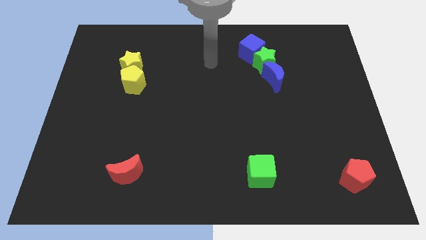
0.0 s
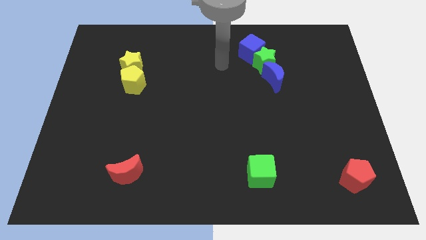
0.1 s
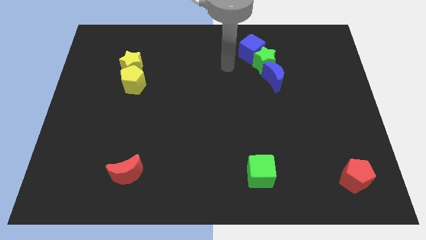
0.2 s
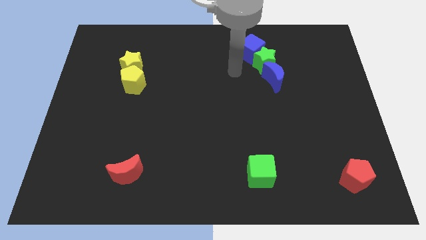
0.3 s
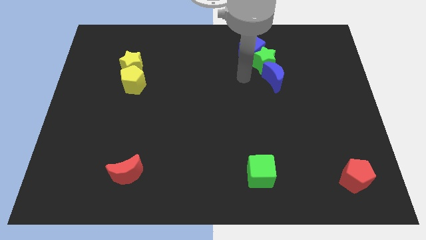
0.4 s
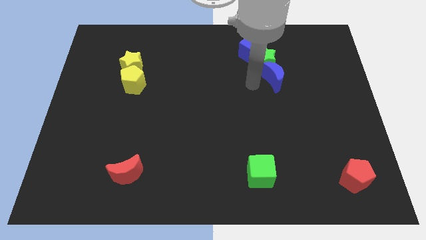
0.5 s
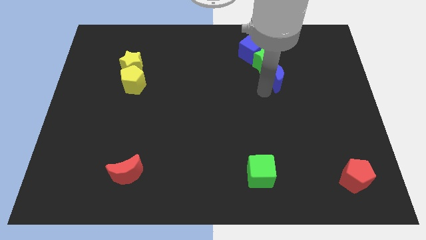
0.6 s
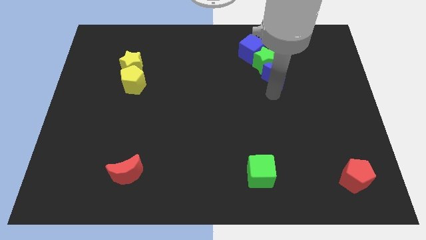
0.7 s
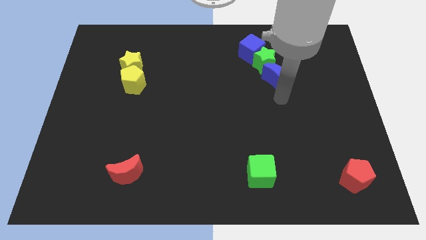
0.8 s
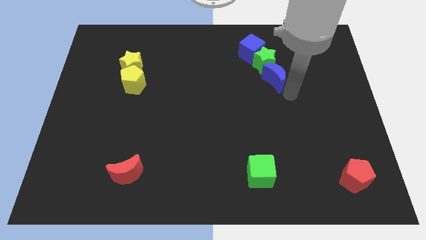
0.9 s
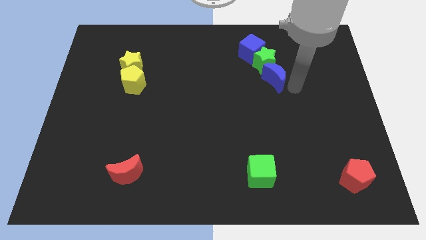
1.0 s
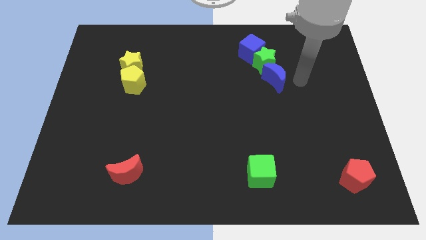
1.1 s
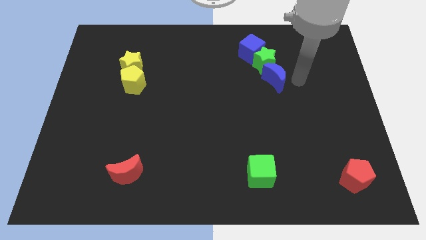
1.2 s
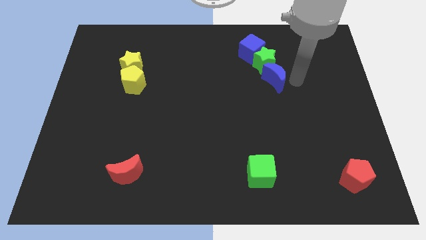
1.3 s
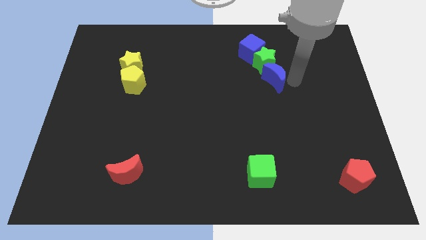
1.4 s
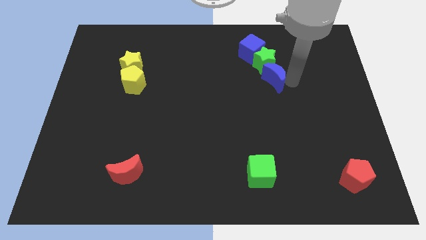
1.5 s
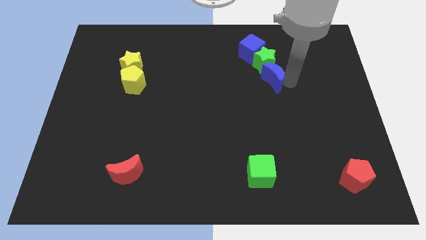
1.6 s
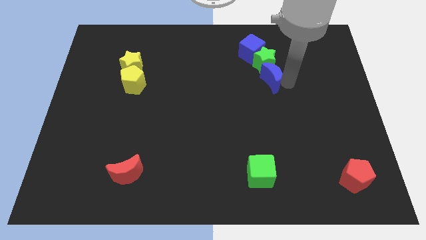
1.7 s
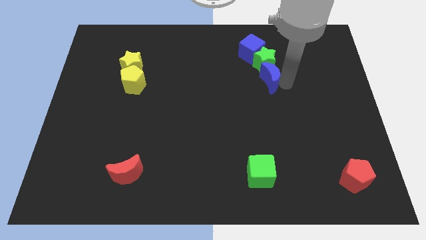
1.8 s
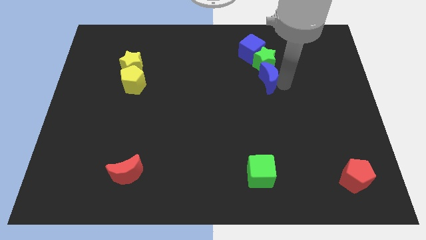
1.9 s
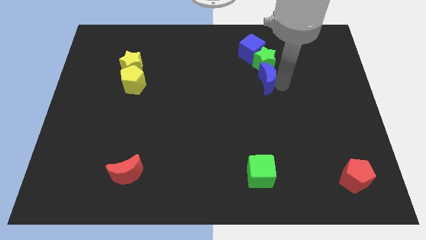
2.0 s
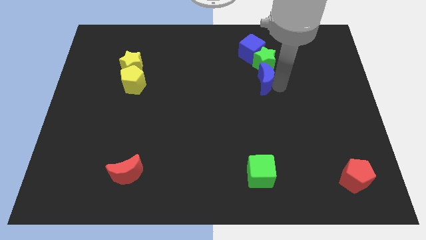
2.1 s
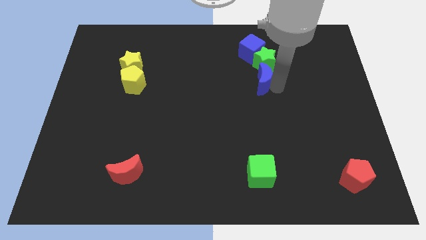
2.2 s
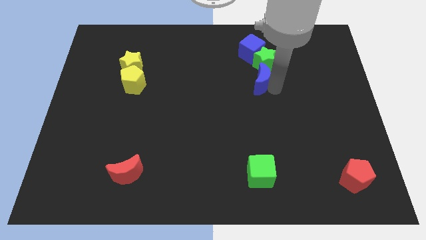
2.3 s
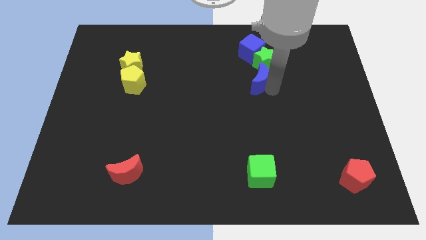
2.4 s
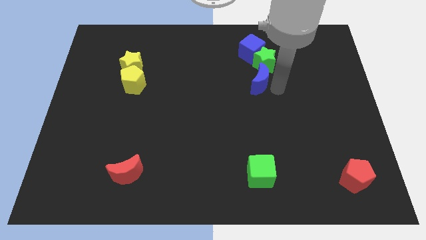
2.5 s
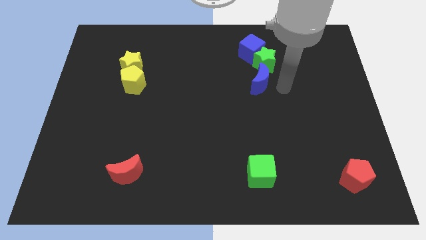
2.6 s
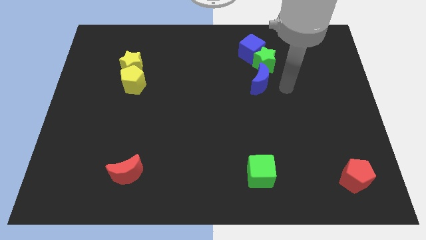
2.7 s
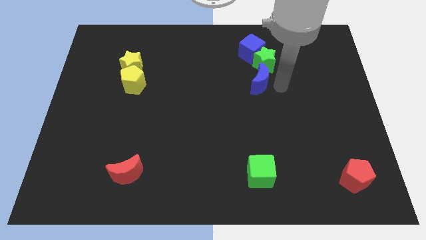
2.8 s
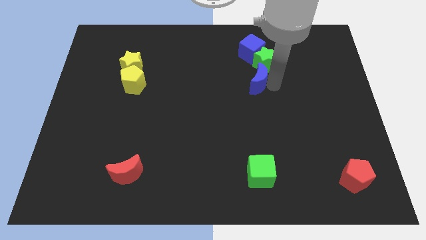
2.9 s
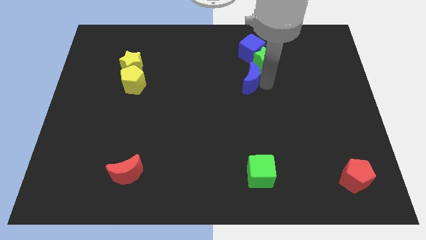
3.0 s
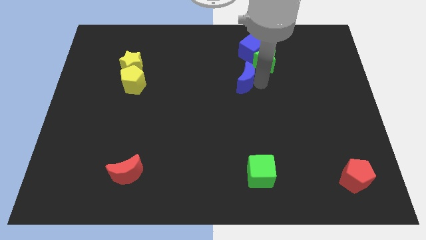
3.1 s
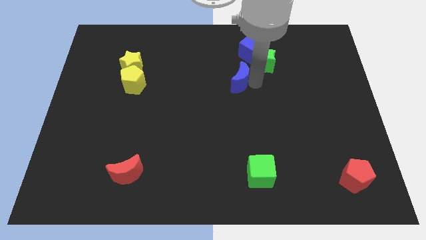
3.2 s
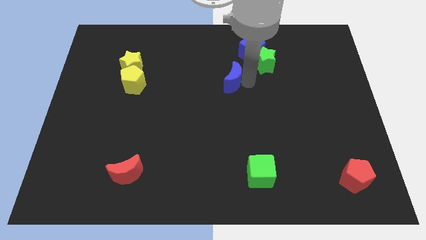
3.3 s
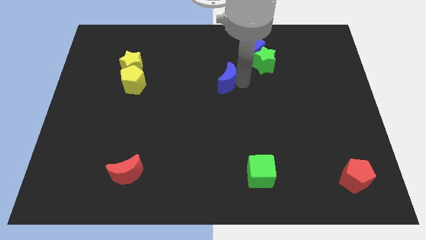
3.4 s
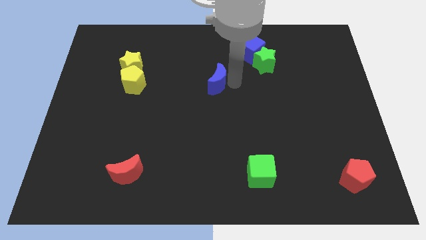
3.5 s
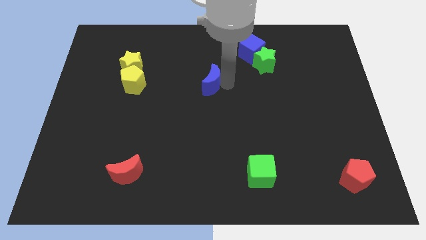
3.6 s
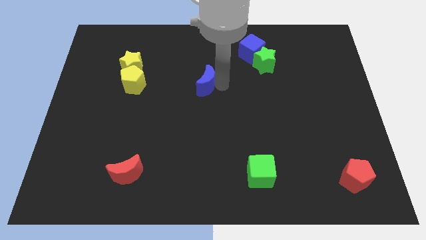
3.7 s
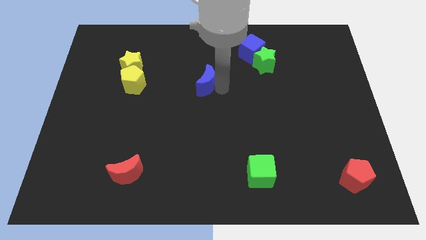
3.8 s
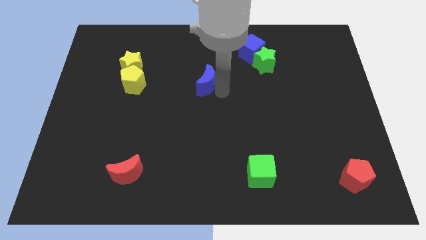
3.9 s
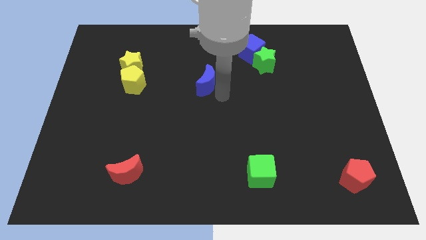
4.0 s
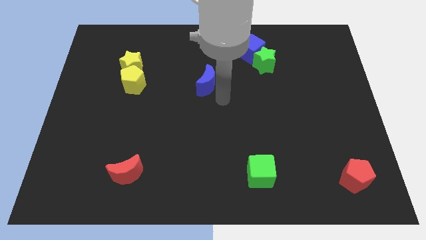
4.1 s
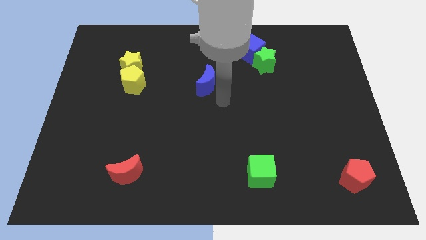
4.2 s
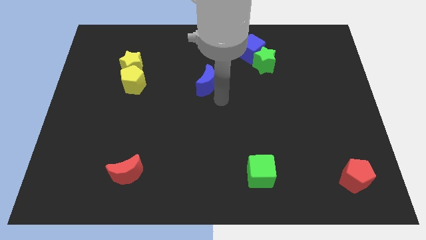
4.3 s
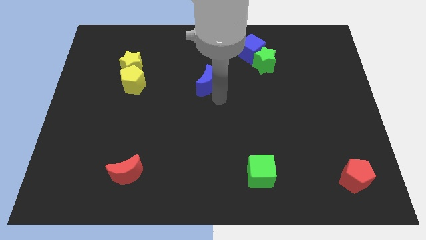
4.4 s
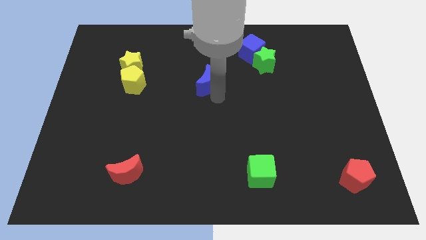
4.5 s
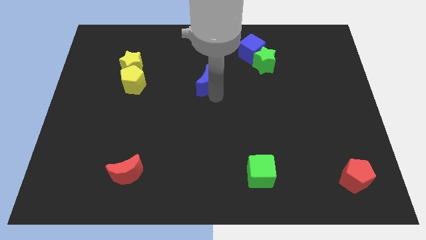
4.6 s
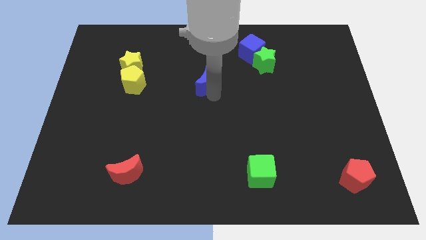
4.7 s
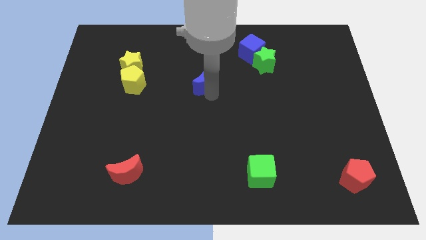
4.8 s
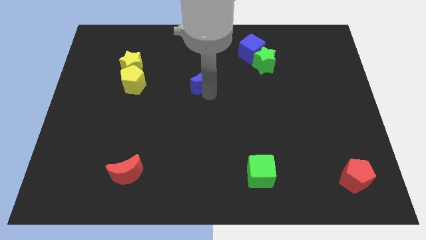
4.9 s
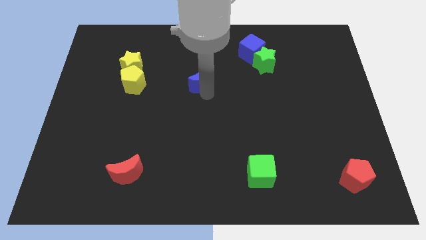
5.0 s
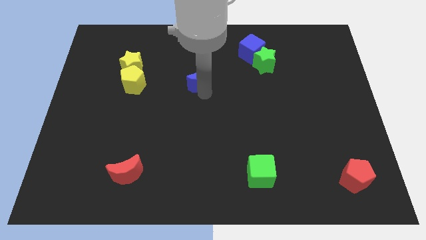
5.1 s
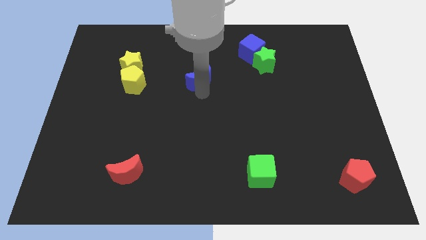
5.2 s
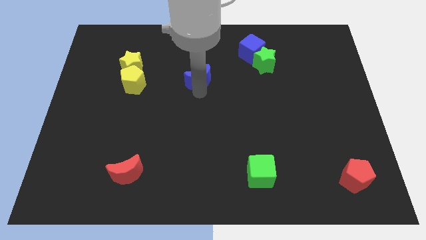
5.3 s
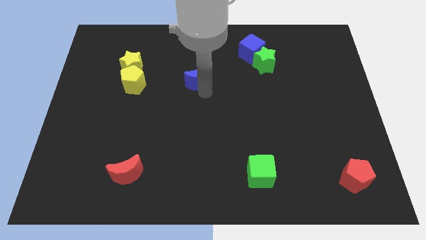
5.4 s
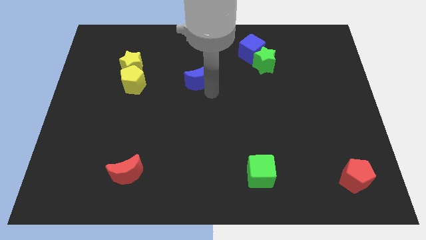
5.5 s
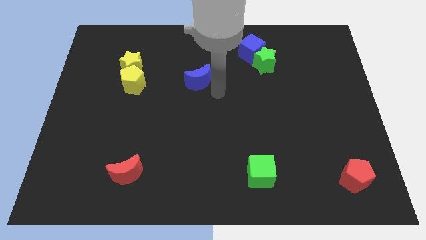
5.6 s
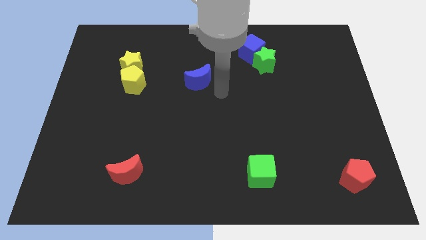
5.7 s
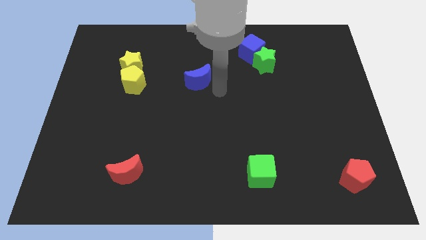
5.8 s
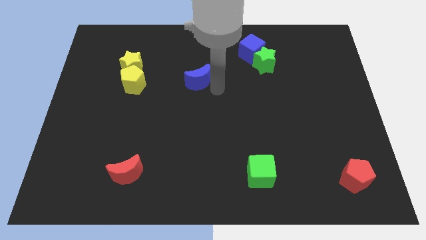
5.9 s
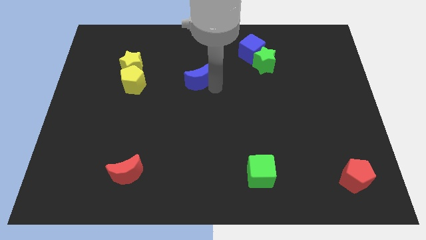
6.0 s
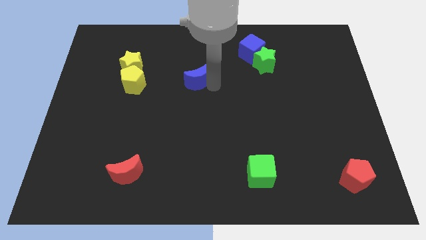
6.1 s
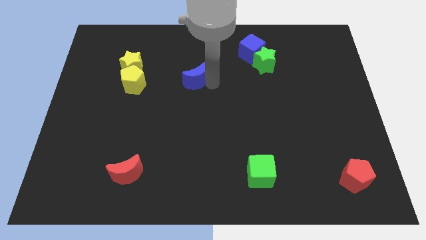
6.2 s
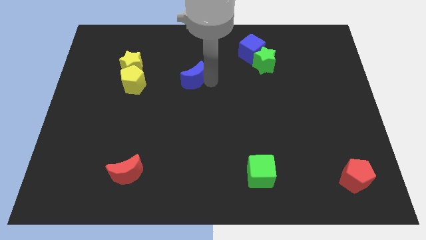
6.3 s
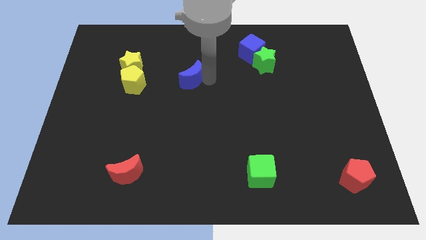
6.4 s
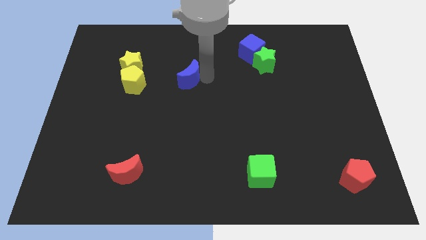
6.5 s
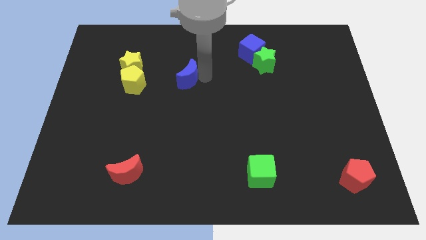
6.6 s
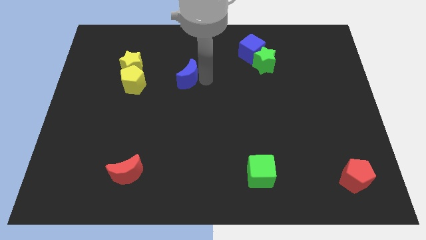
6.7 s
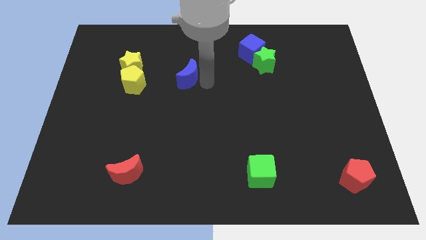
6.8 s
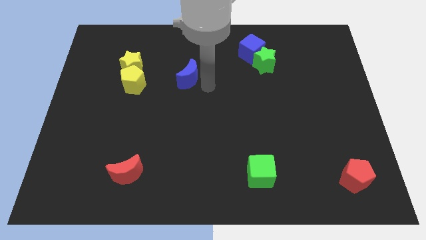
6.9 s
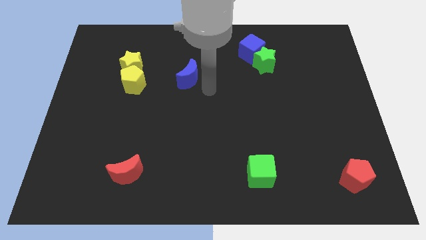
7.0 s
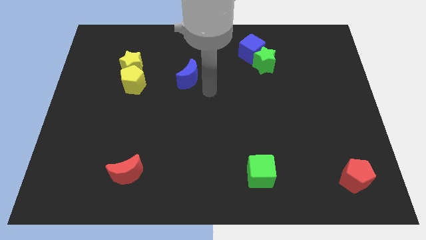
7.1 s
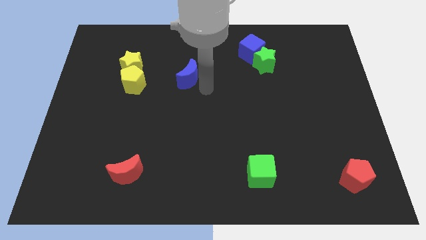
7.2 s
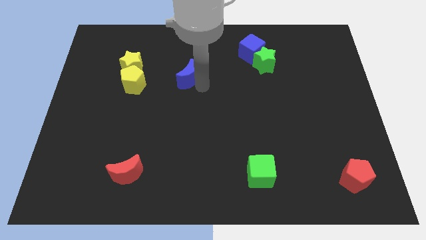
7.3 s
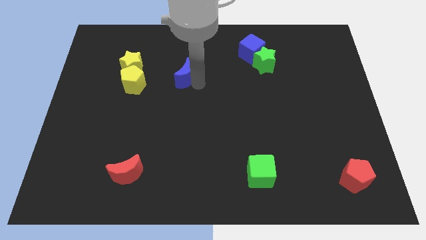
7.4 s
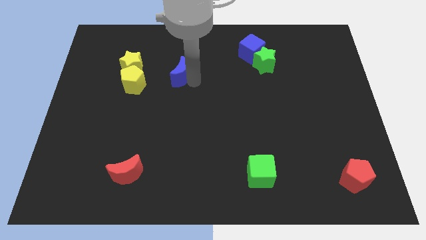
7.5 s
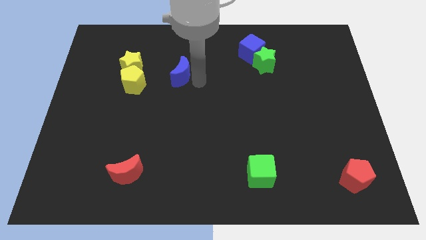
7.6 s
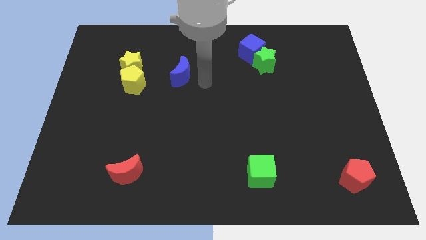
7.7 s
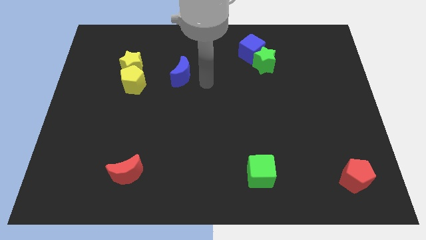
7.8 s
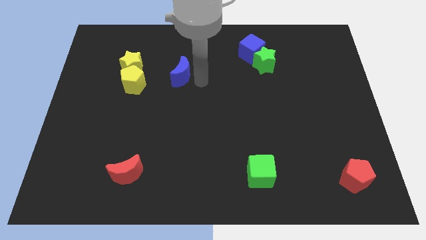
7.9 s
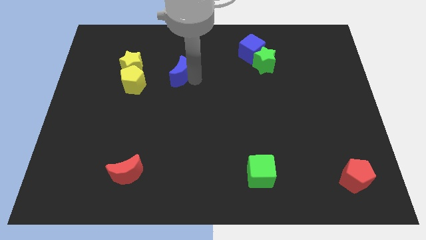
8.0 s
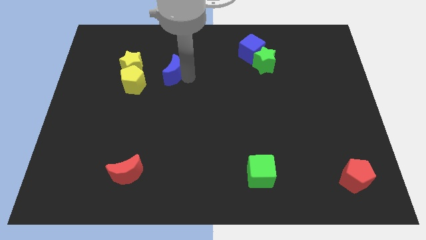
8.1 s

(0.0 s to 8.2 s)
move the blue moon to the top right side of the yellow pentagon
